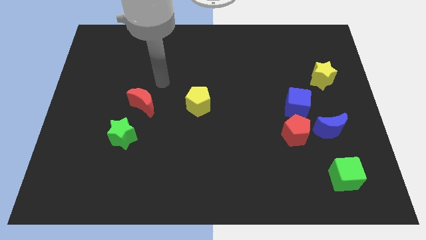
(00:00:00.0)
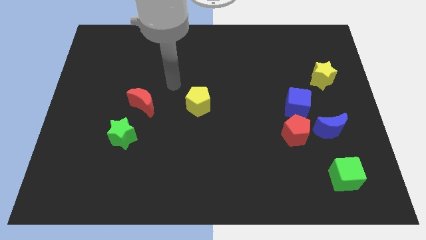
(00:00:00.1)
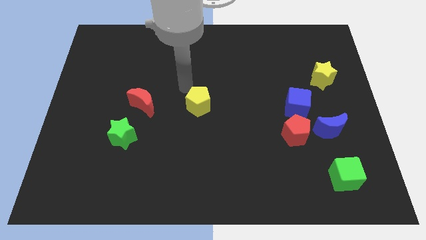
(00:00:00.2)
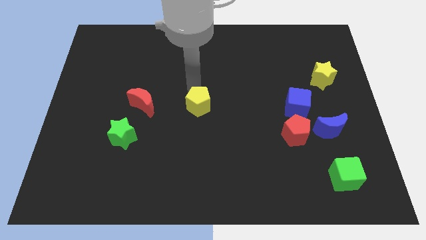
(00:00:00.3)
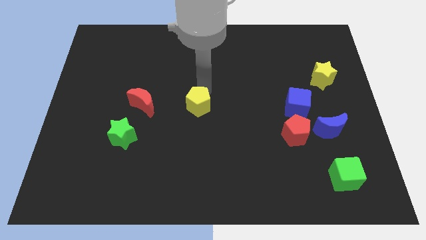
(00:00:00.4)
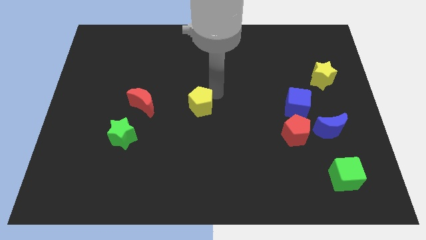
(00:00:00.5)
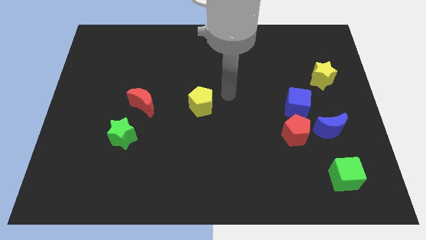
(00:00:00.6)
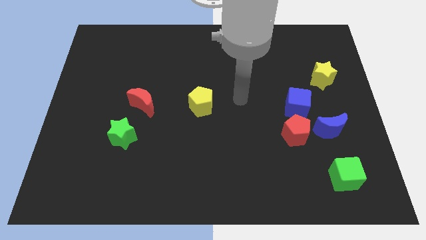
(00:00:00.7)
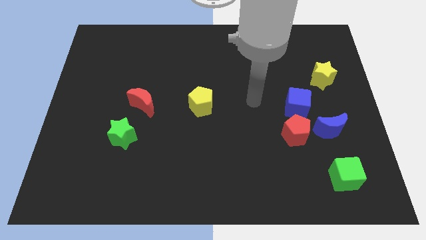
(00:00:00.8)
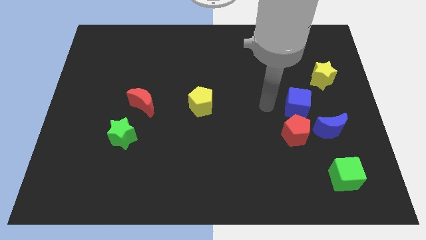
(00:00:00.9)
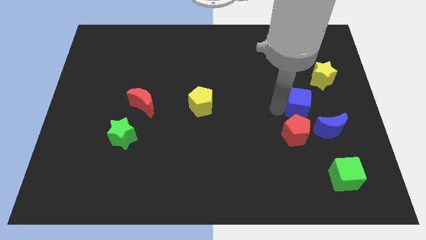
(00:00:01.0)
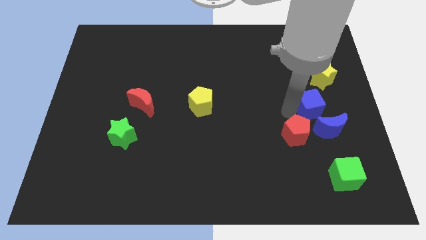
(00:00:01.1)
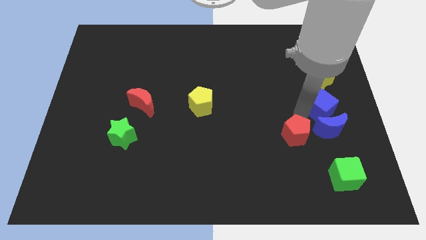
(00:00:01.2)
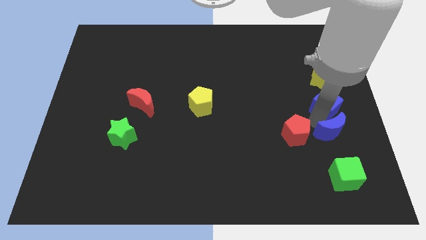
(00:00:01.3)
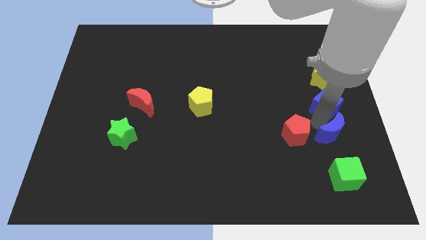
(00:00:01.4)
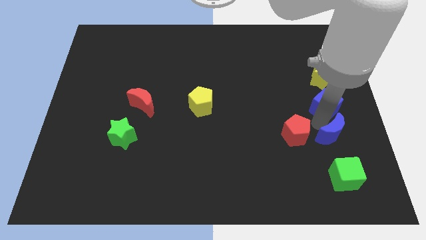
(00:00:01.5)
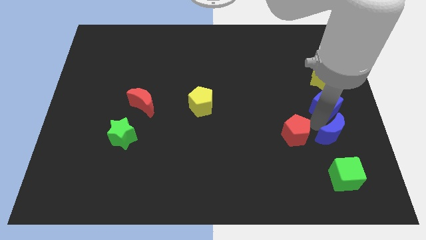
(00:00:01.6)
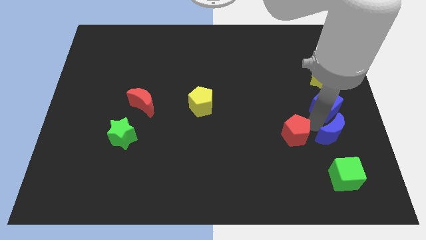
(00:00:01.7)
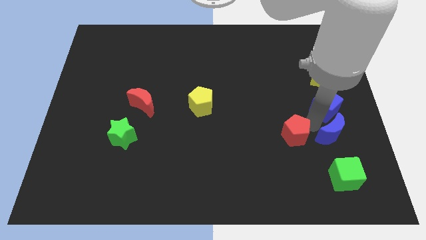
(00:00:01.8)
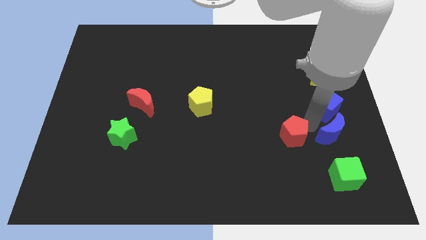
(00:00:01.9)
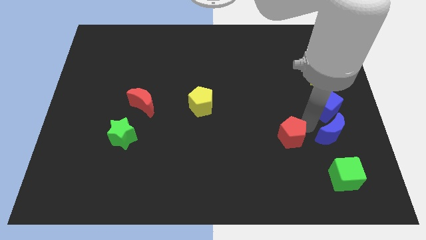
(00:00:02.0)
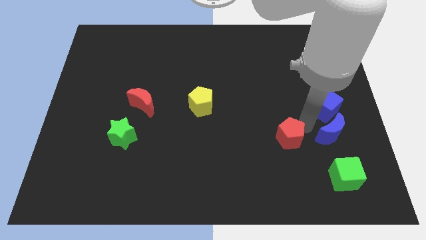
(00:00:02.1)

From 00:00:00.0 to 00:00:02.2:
pull the red pentagon apart from the blue moon and blue cube

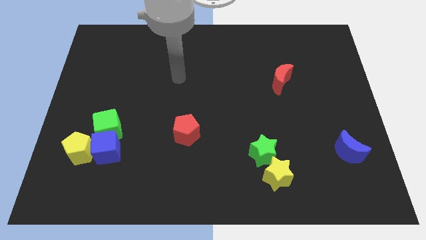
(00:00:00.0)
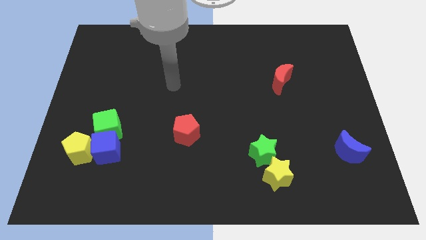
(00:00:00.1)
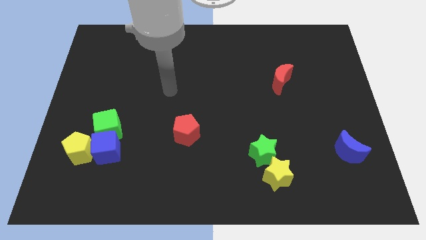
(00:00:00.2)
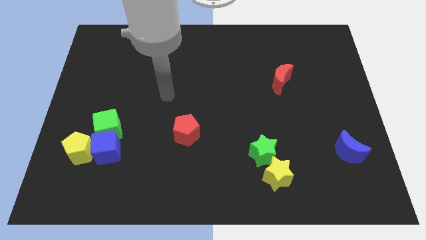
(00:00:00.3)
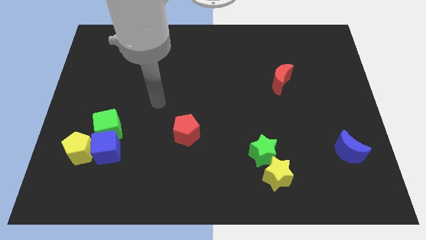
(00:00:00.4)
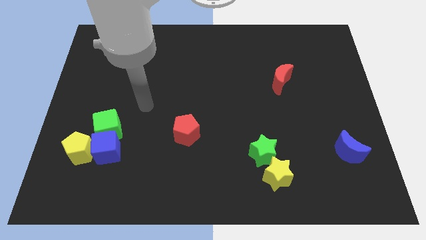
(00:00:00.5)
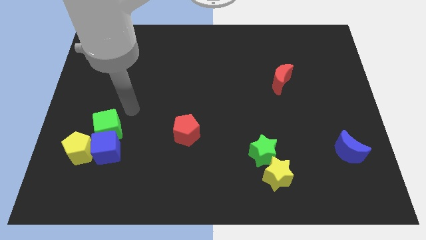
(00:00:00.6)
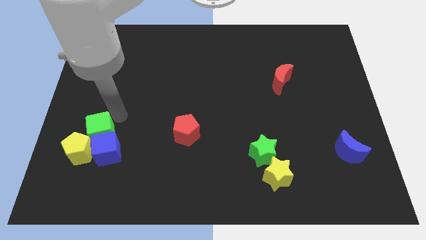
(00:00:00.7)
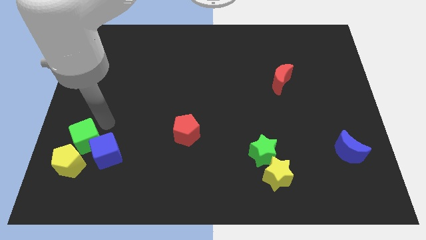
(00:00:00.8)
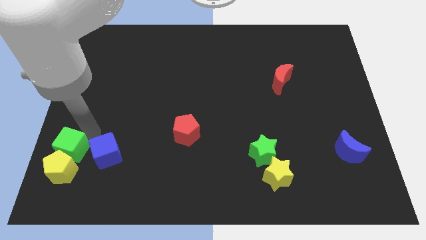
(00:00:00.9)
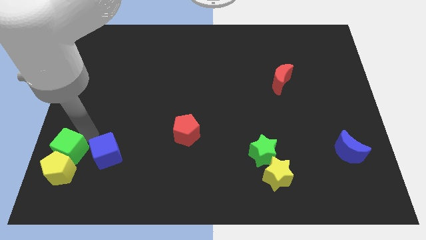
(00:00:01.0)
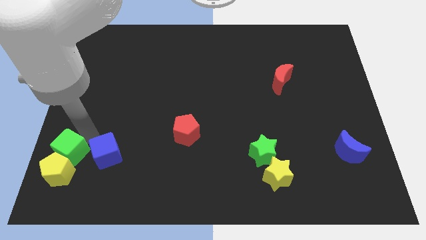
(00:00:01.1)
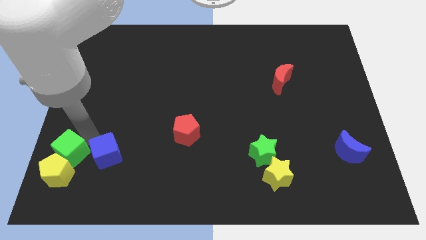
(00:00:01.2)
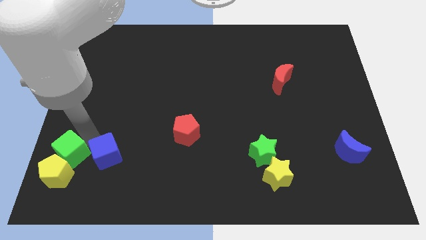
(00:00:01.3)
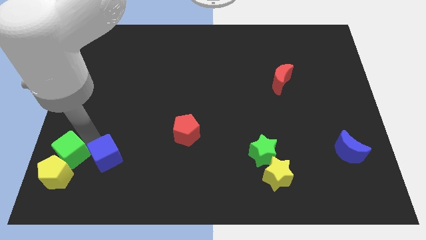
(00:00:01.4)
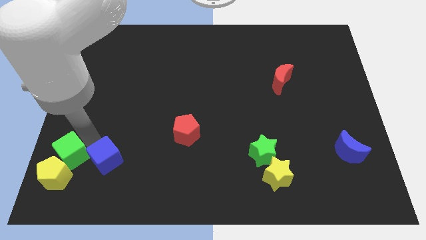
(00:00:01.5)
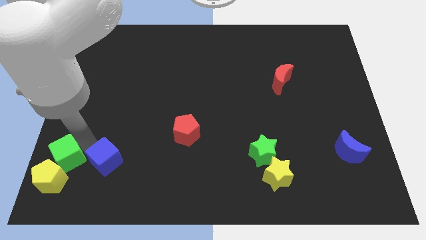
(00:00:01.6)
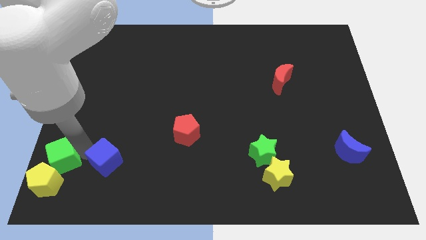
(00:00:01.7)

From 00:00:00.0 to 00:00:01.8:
separate the blue cube from the green cube and yellow pentagon

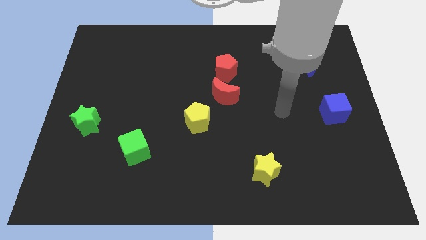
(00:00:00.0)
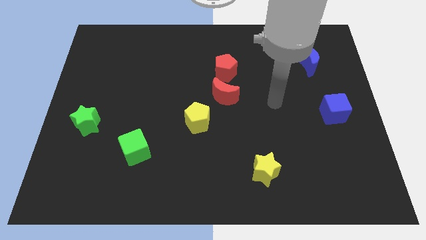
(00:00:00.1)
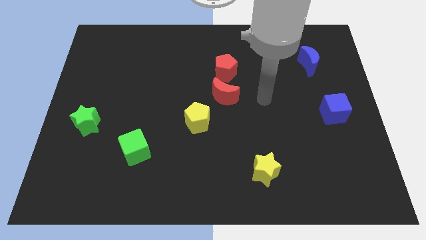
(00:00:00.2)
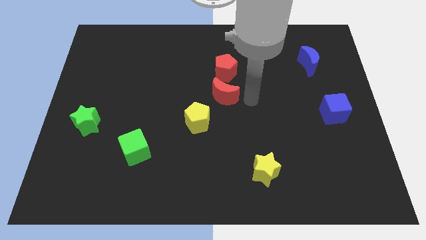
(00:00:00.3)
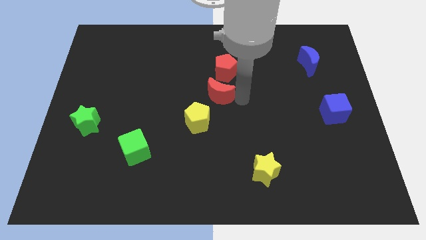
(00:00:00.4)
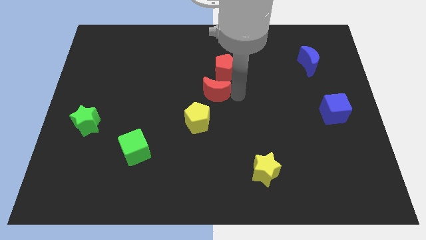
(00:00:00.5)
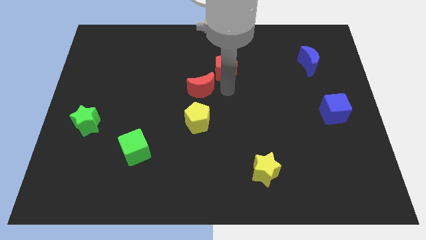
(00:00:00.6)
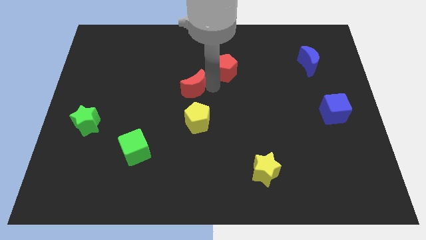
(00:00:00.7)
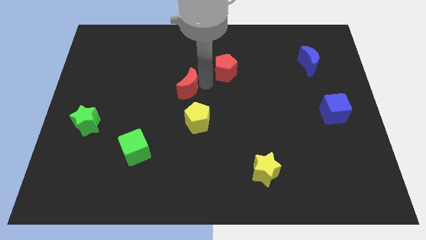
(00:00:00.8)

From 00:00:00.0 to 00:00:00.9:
separate the red pentagon from the red moon

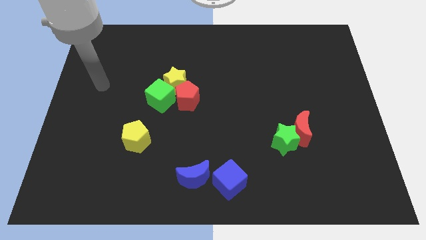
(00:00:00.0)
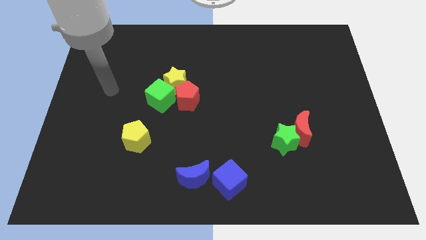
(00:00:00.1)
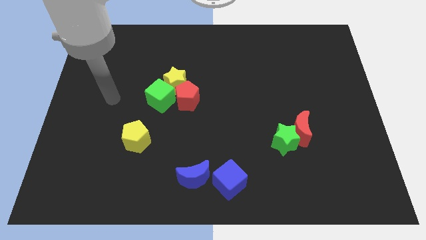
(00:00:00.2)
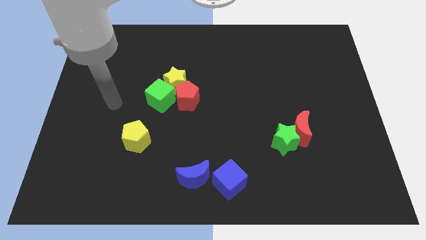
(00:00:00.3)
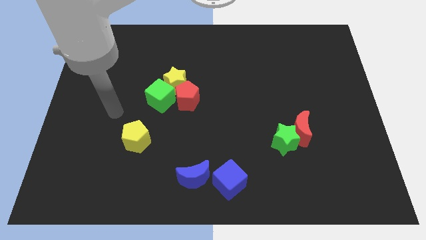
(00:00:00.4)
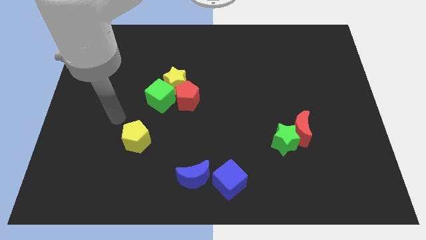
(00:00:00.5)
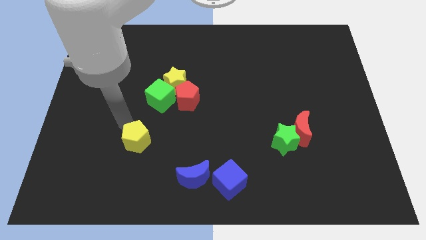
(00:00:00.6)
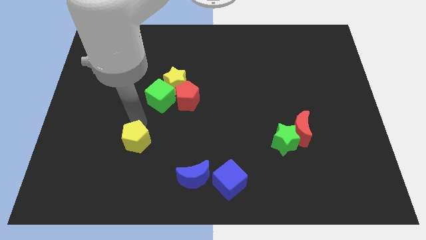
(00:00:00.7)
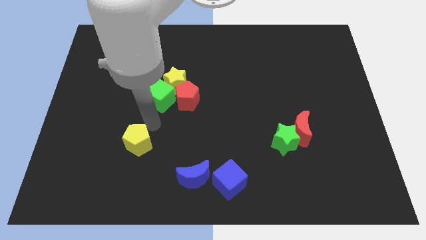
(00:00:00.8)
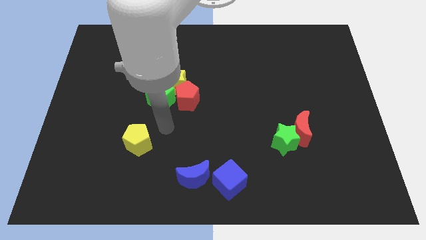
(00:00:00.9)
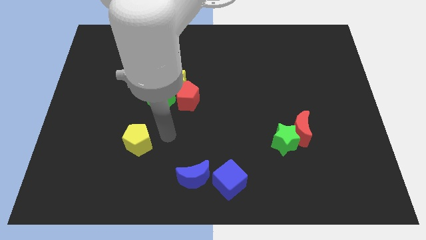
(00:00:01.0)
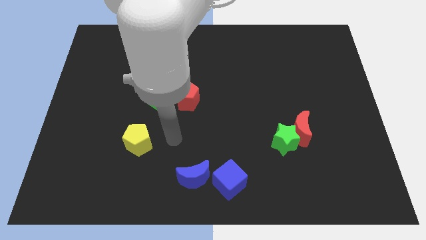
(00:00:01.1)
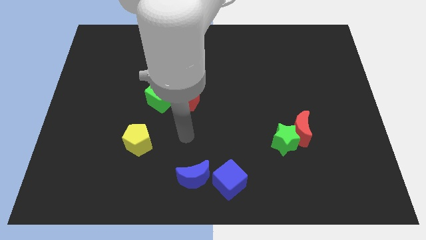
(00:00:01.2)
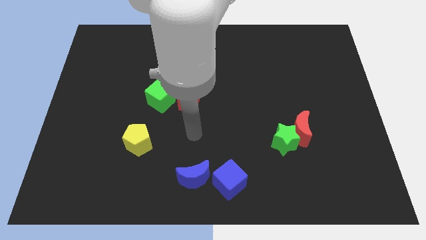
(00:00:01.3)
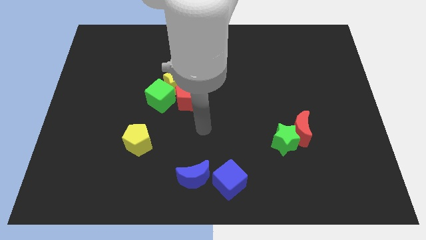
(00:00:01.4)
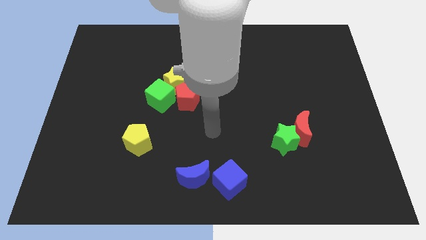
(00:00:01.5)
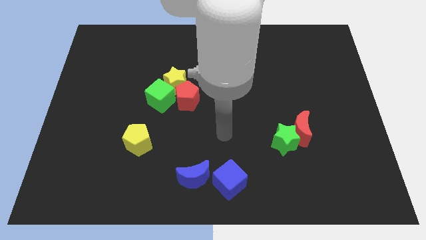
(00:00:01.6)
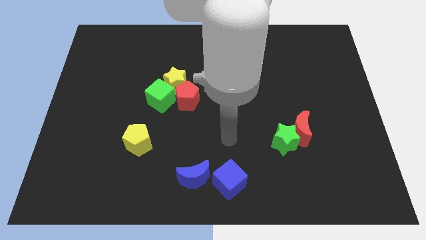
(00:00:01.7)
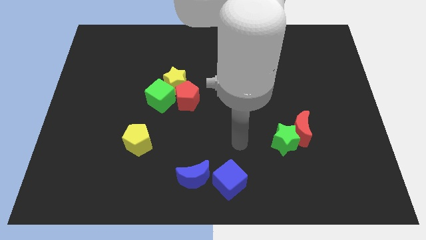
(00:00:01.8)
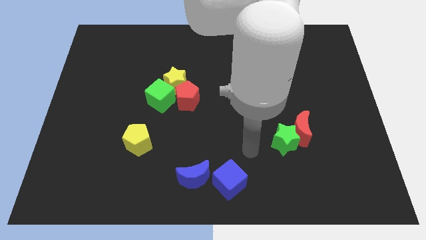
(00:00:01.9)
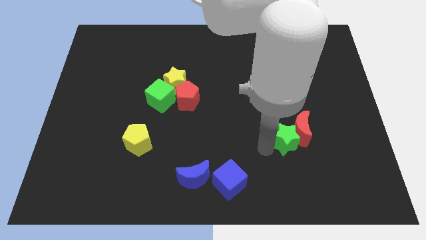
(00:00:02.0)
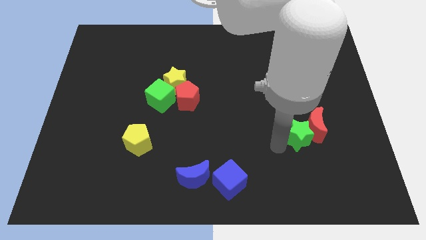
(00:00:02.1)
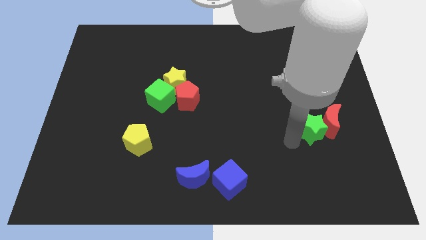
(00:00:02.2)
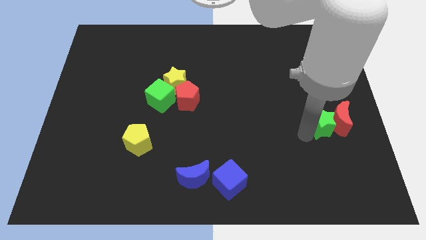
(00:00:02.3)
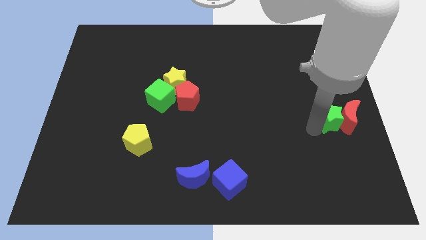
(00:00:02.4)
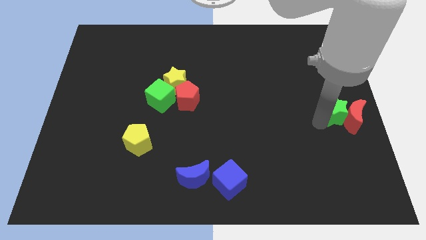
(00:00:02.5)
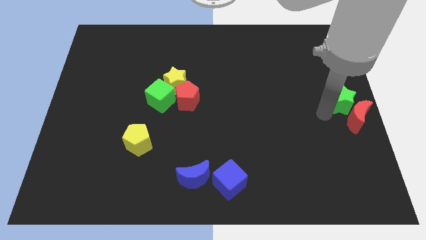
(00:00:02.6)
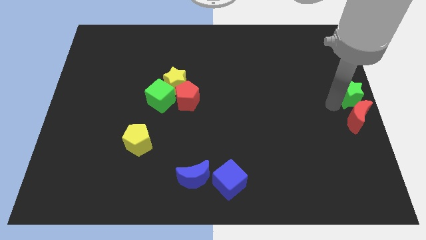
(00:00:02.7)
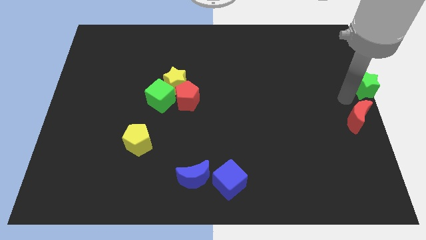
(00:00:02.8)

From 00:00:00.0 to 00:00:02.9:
separate the red moon from the green star

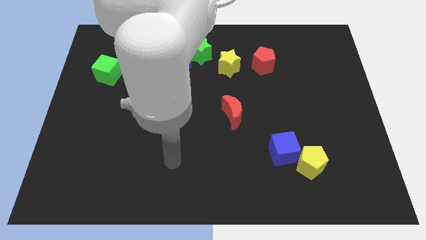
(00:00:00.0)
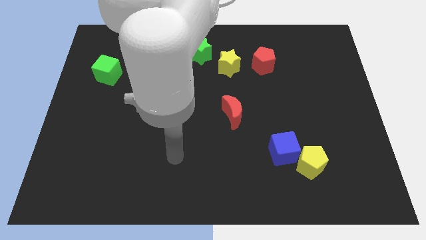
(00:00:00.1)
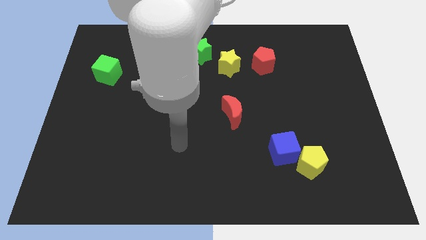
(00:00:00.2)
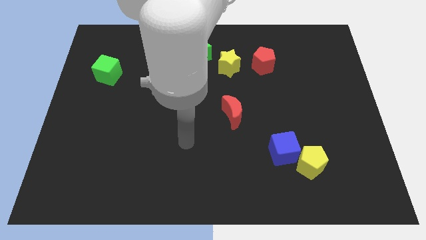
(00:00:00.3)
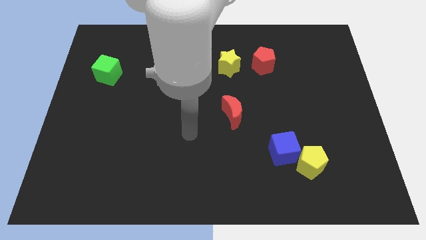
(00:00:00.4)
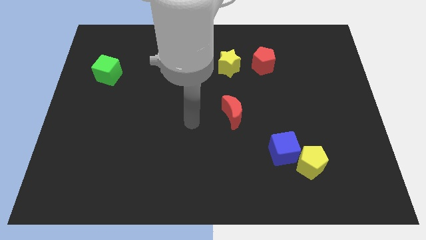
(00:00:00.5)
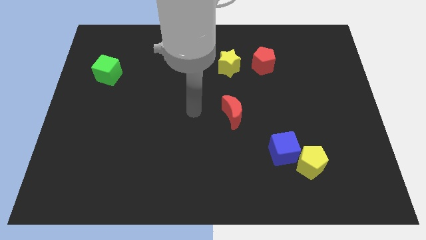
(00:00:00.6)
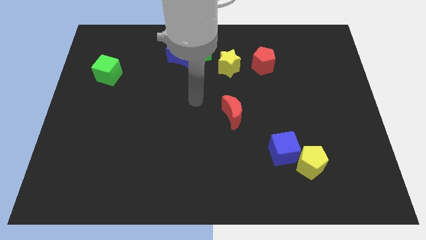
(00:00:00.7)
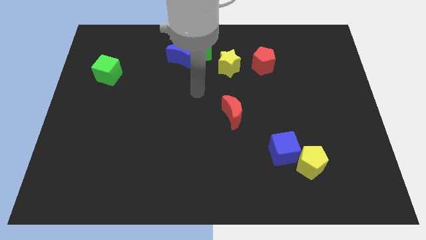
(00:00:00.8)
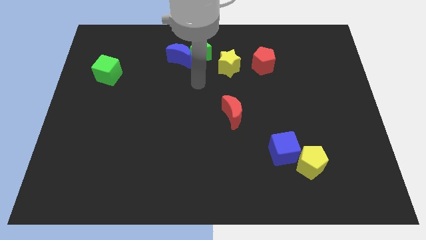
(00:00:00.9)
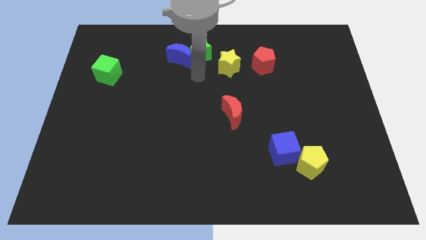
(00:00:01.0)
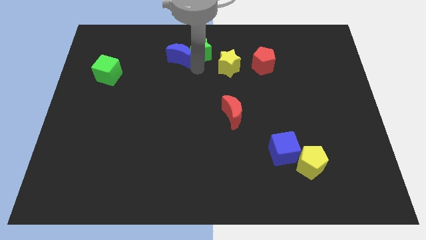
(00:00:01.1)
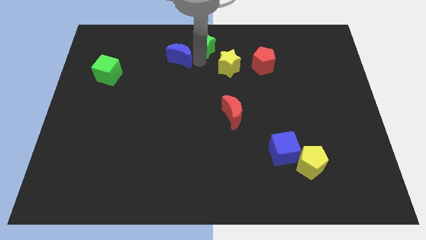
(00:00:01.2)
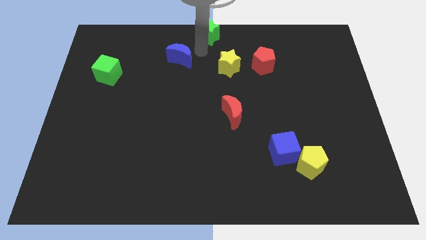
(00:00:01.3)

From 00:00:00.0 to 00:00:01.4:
separate the blue moon from the green star
